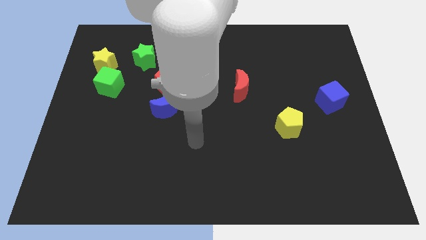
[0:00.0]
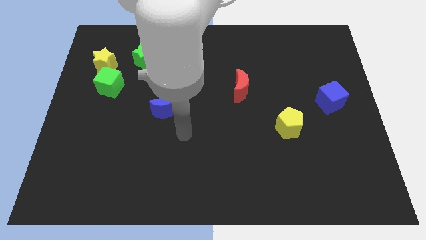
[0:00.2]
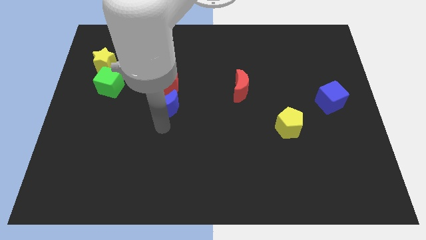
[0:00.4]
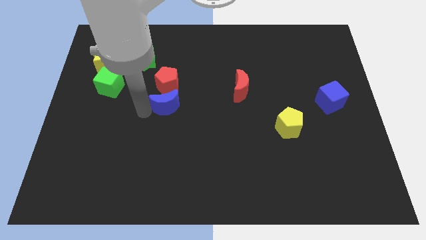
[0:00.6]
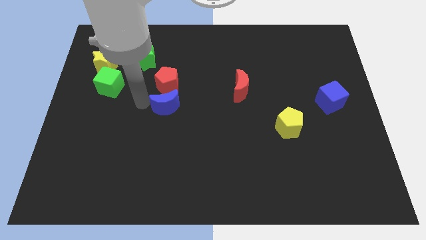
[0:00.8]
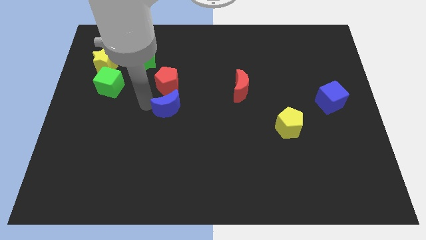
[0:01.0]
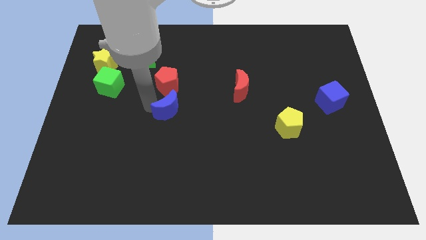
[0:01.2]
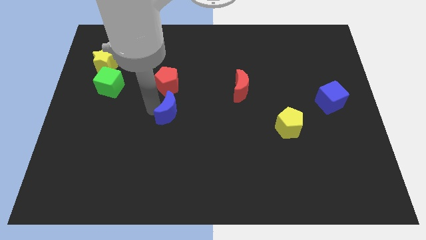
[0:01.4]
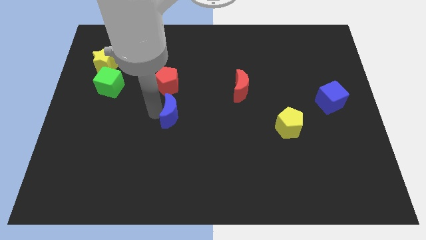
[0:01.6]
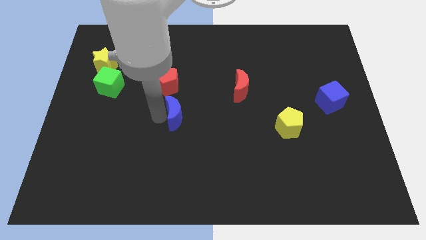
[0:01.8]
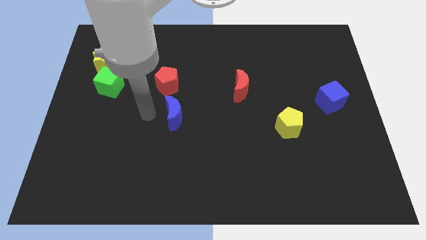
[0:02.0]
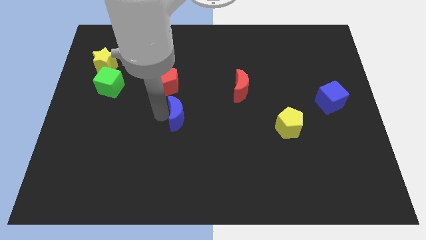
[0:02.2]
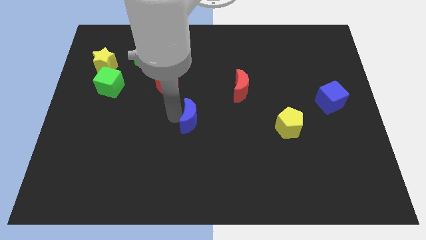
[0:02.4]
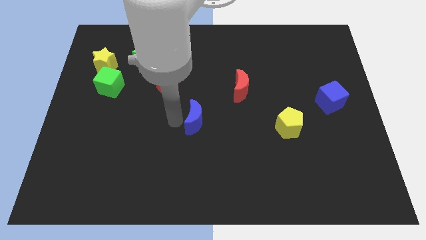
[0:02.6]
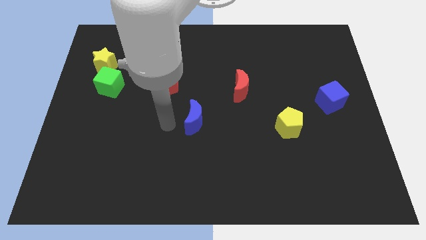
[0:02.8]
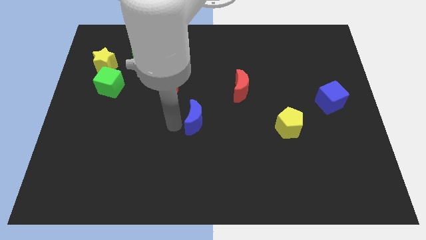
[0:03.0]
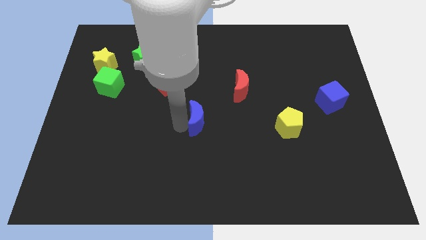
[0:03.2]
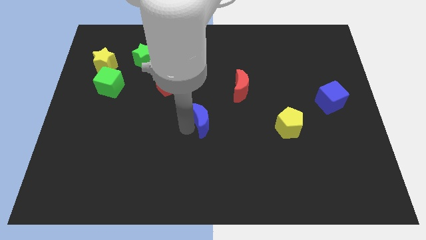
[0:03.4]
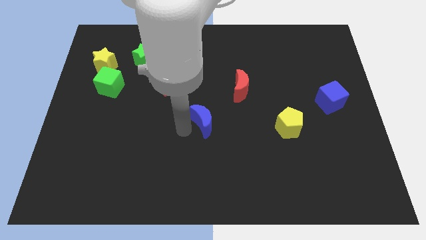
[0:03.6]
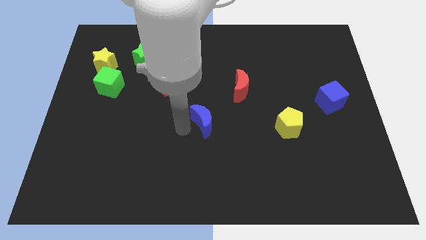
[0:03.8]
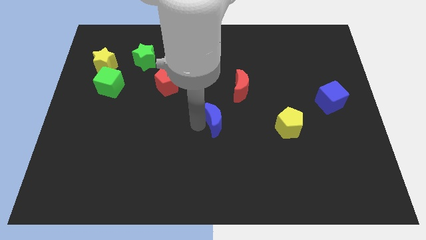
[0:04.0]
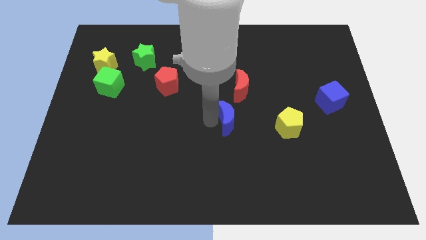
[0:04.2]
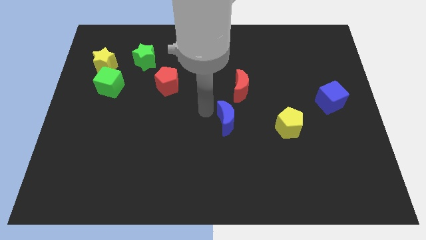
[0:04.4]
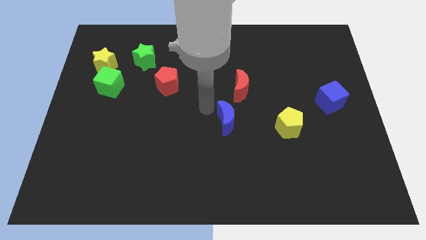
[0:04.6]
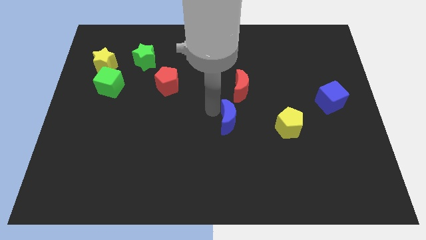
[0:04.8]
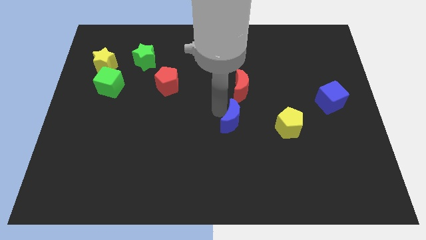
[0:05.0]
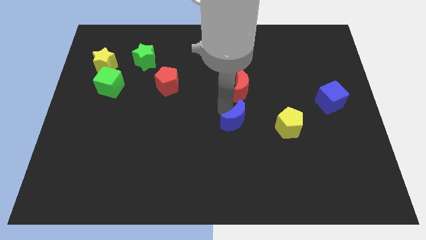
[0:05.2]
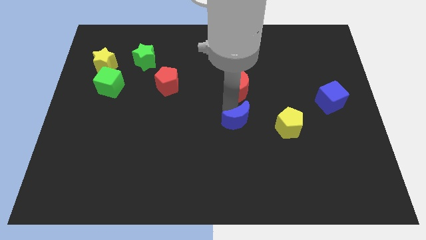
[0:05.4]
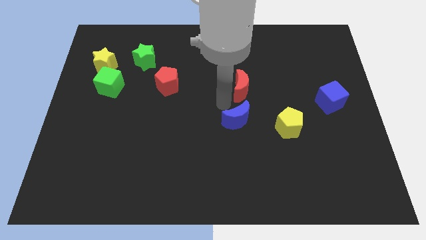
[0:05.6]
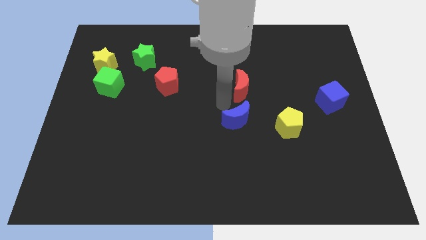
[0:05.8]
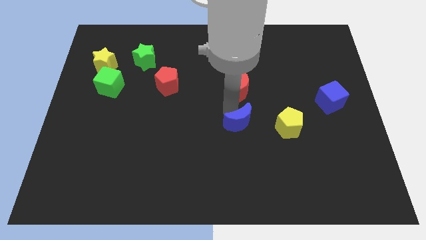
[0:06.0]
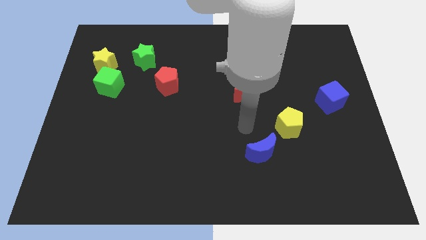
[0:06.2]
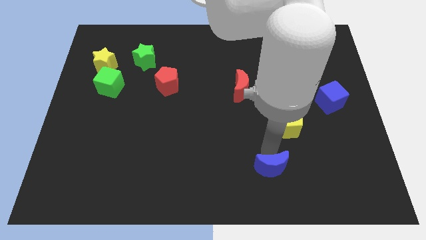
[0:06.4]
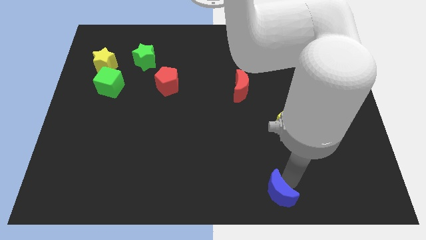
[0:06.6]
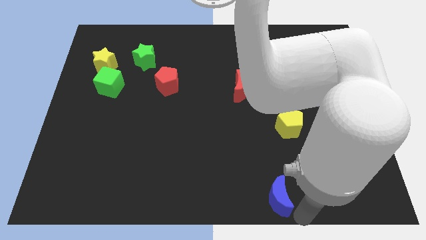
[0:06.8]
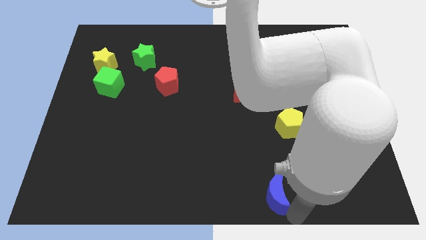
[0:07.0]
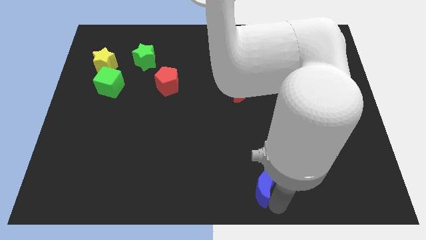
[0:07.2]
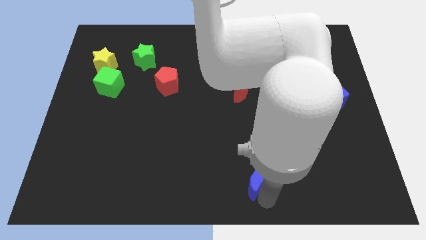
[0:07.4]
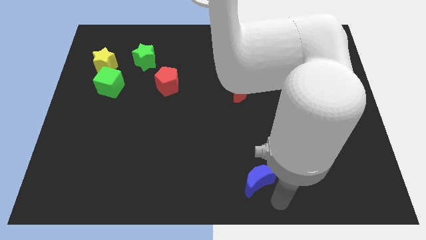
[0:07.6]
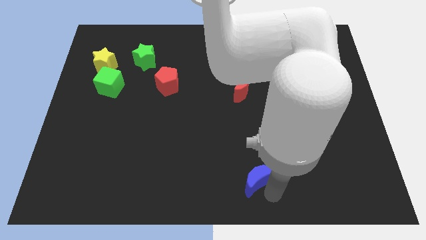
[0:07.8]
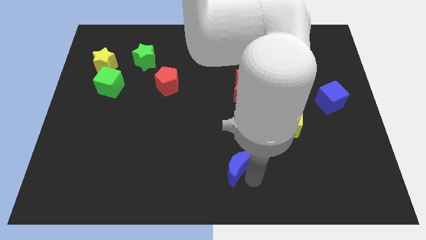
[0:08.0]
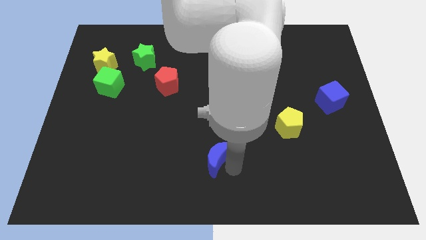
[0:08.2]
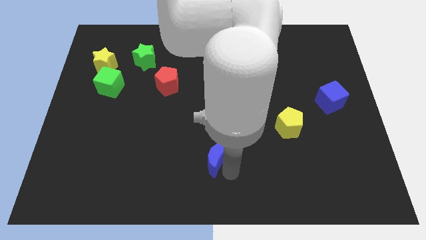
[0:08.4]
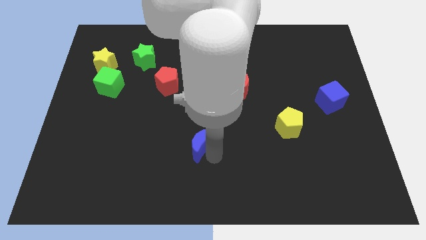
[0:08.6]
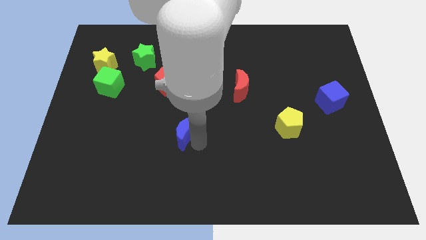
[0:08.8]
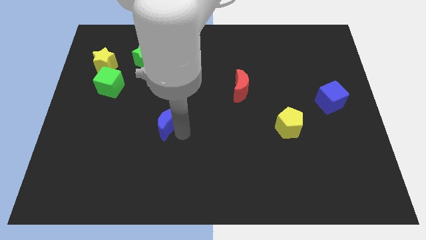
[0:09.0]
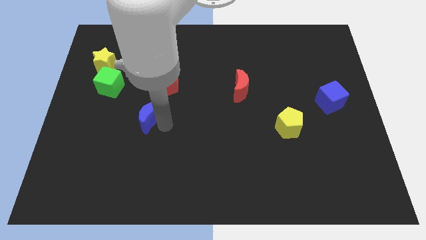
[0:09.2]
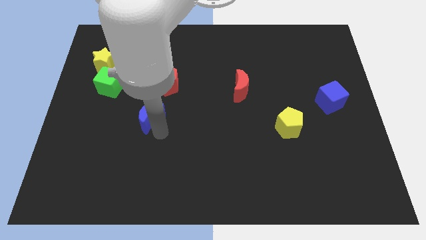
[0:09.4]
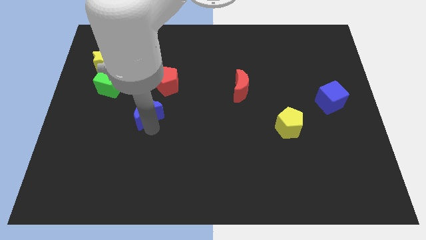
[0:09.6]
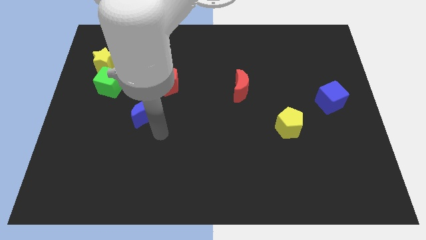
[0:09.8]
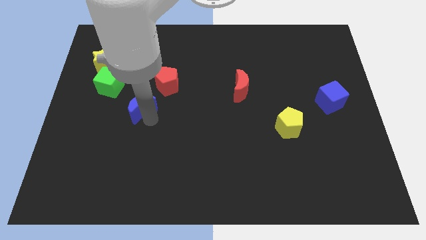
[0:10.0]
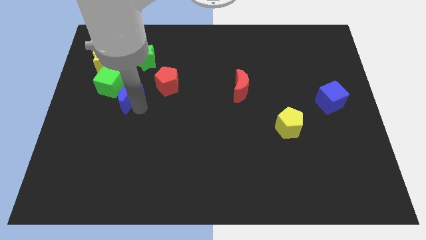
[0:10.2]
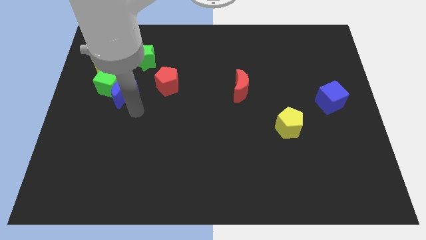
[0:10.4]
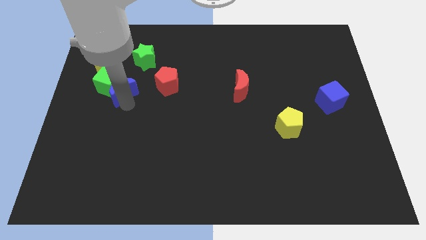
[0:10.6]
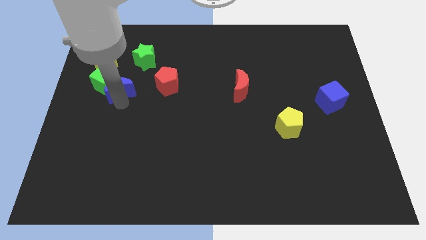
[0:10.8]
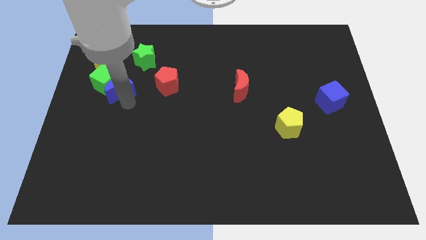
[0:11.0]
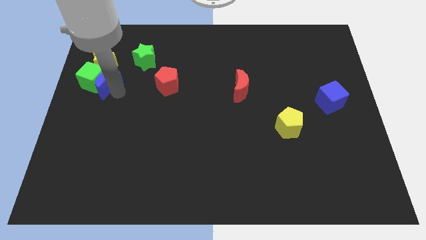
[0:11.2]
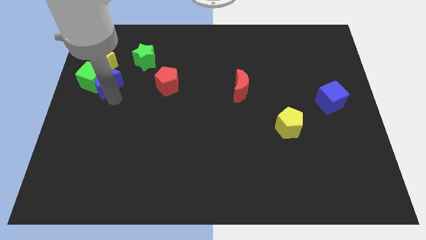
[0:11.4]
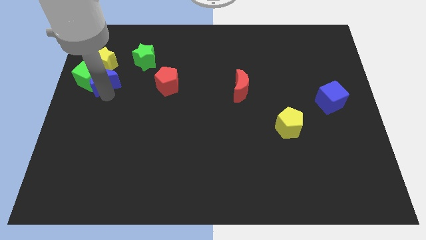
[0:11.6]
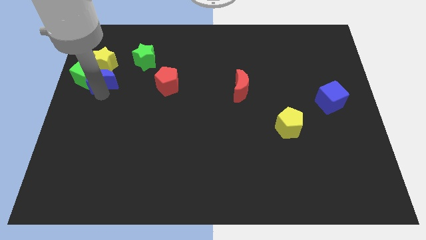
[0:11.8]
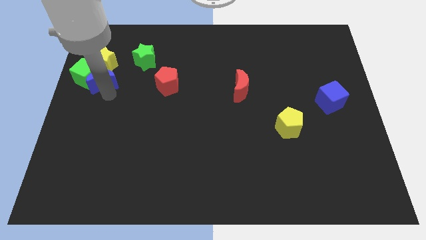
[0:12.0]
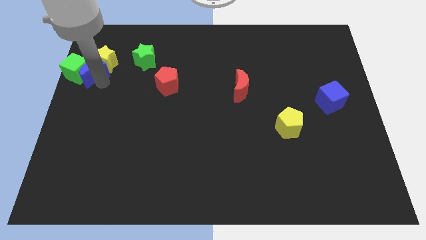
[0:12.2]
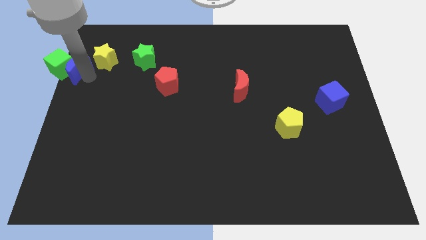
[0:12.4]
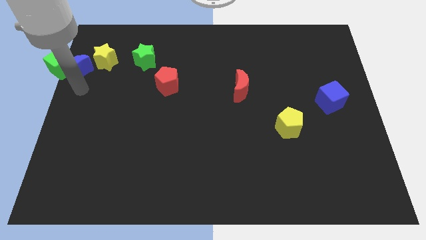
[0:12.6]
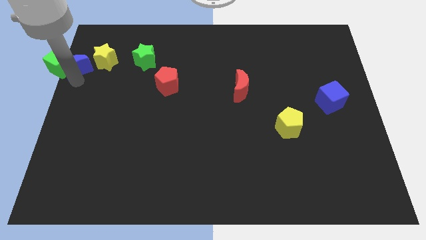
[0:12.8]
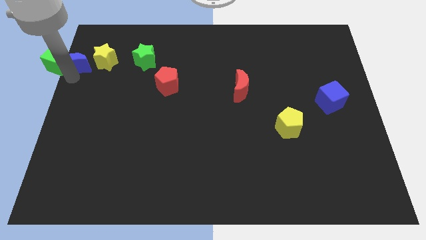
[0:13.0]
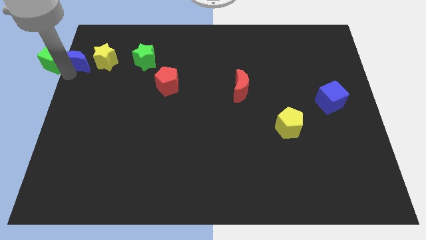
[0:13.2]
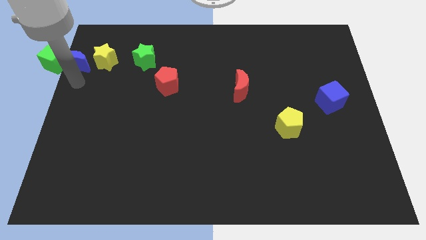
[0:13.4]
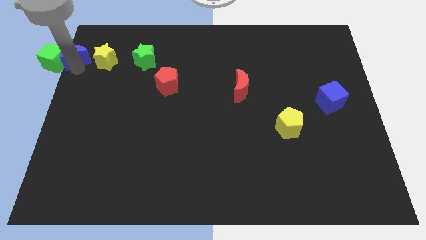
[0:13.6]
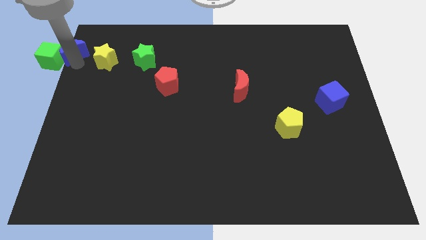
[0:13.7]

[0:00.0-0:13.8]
slide the blue moon to the top left of the board

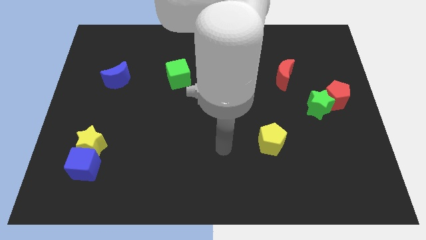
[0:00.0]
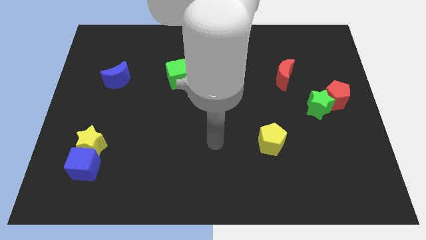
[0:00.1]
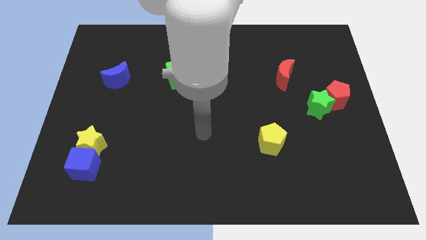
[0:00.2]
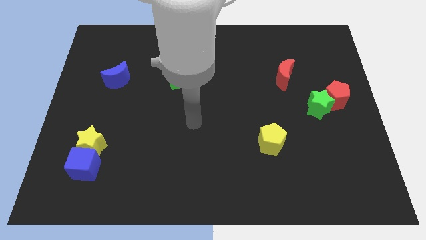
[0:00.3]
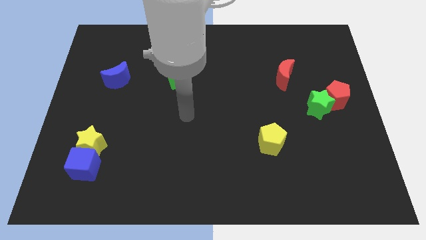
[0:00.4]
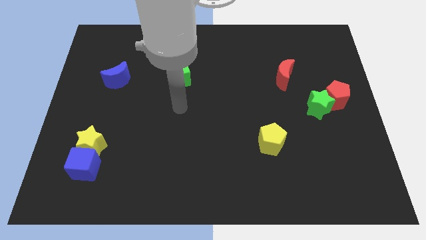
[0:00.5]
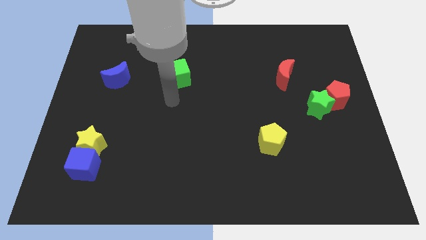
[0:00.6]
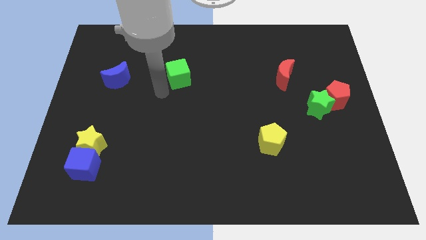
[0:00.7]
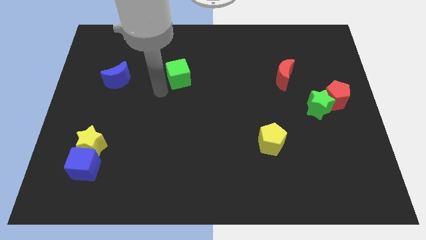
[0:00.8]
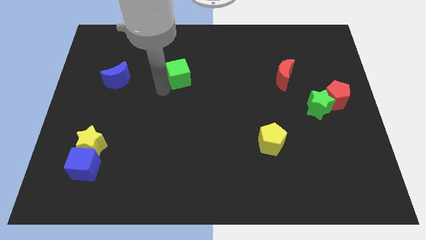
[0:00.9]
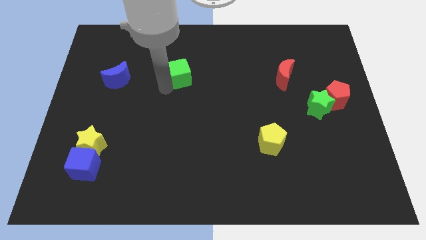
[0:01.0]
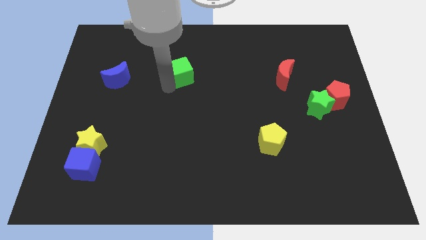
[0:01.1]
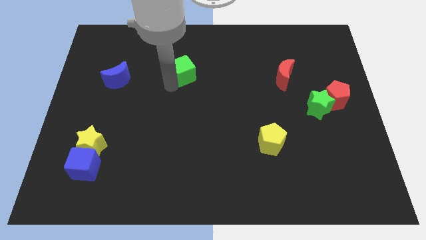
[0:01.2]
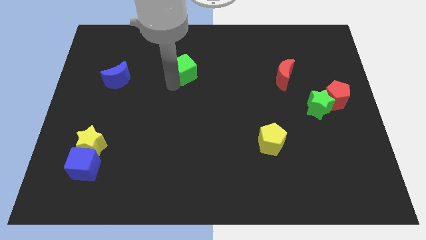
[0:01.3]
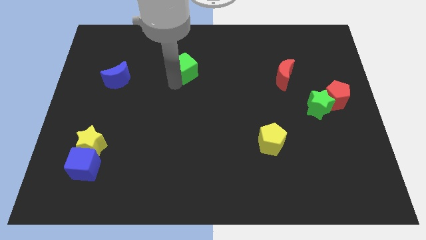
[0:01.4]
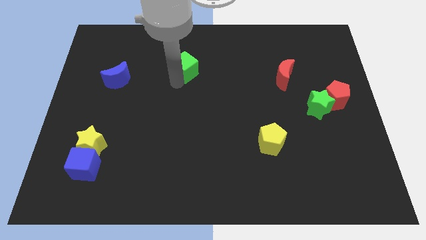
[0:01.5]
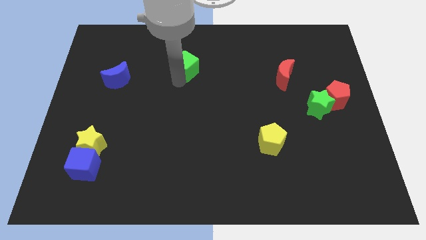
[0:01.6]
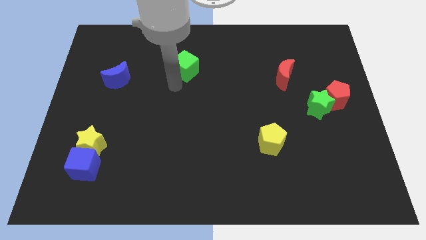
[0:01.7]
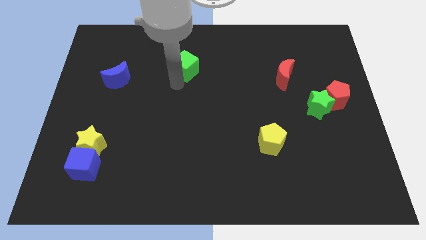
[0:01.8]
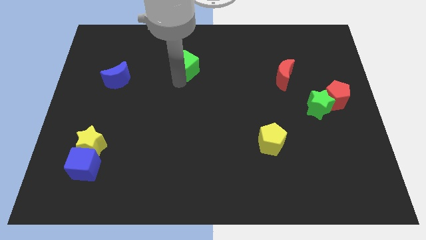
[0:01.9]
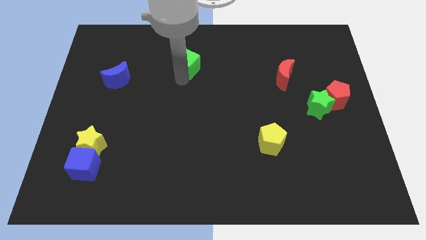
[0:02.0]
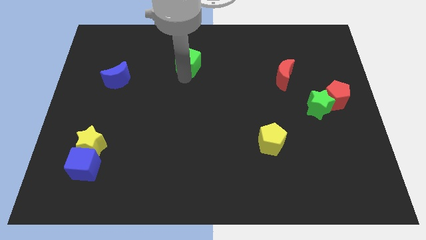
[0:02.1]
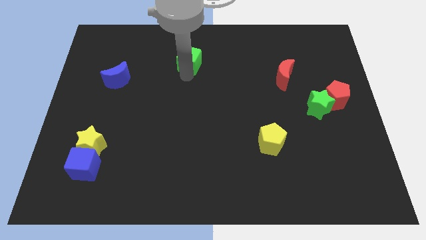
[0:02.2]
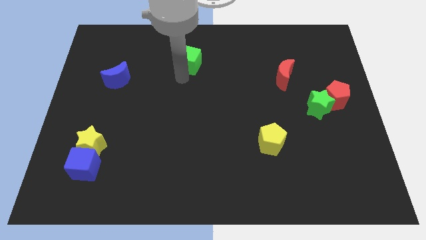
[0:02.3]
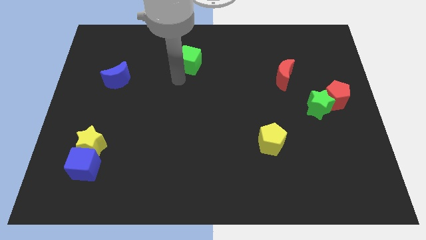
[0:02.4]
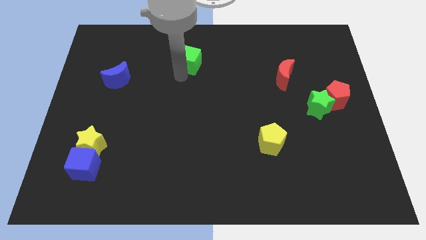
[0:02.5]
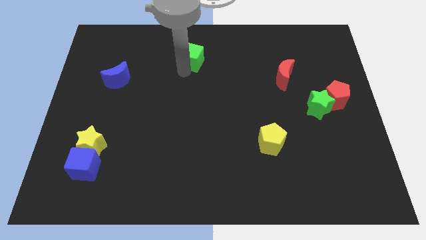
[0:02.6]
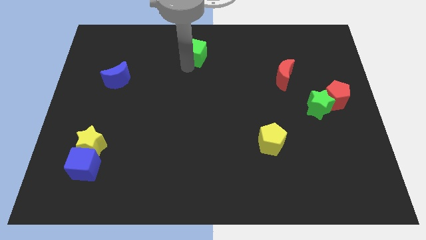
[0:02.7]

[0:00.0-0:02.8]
put the green cube to the towards your base
